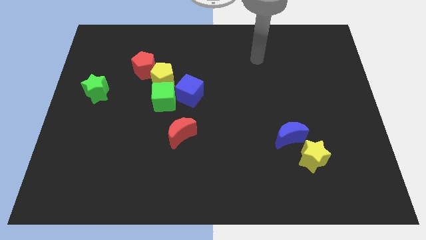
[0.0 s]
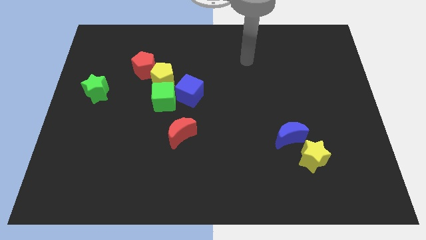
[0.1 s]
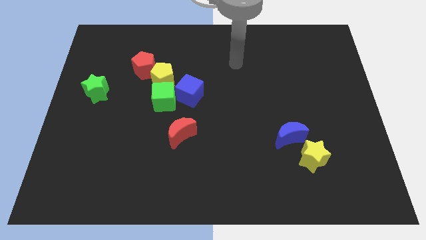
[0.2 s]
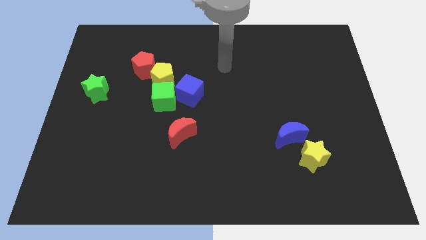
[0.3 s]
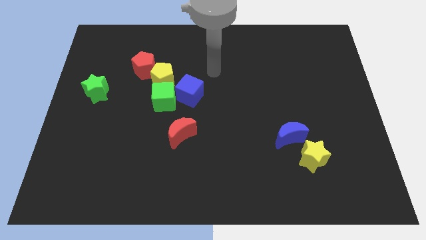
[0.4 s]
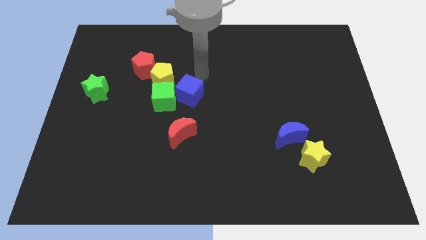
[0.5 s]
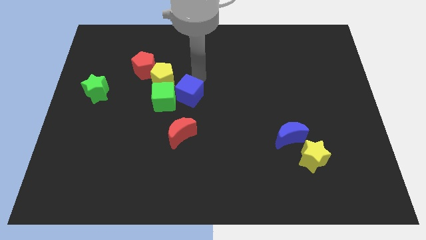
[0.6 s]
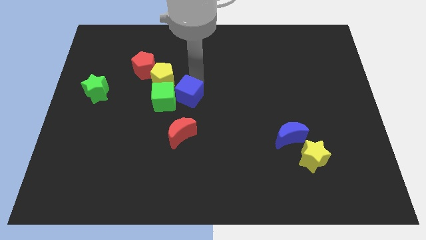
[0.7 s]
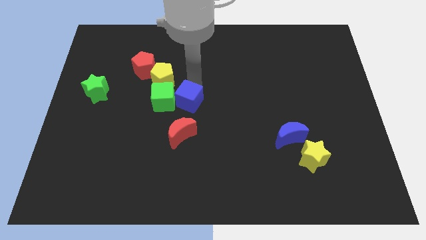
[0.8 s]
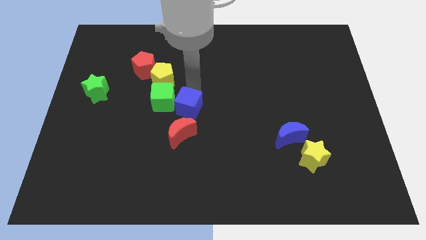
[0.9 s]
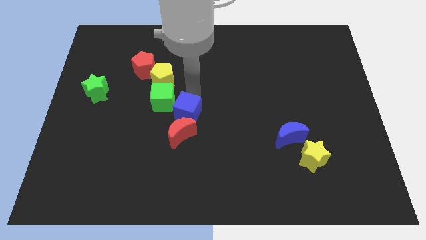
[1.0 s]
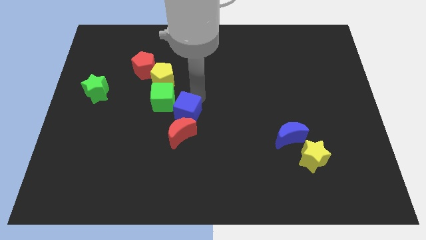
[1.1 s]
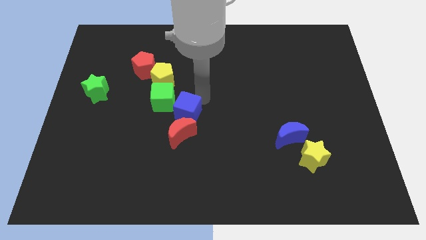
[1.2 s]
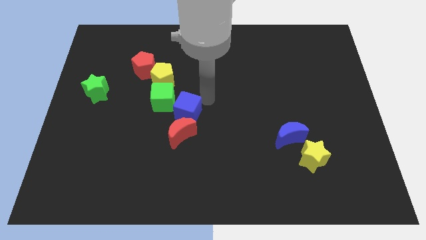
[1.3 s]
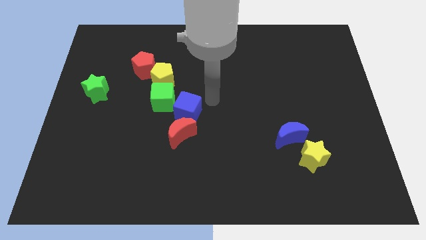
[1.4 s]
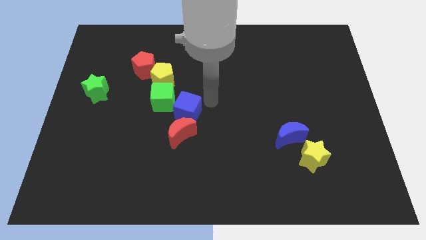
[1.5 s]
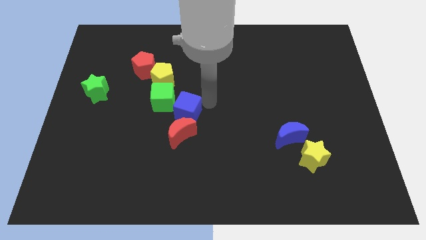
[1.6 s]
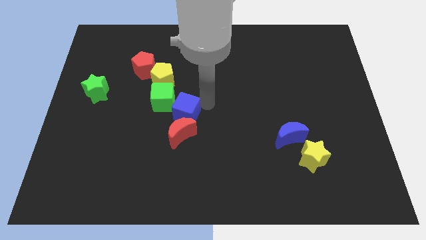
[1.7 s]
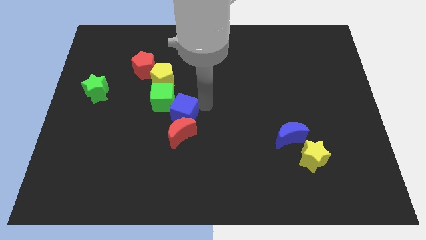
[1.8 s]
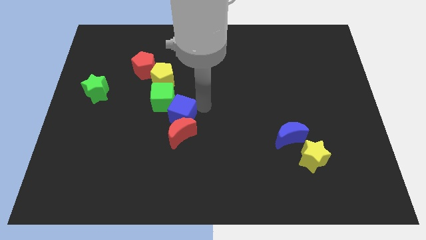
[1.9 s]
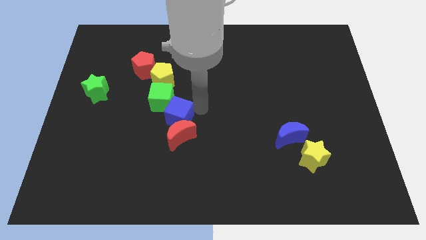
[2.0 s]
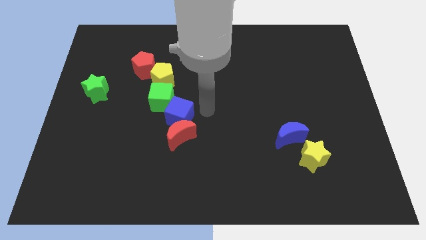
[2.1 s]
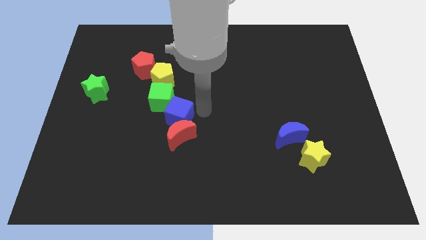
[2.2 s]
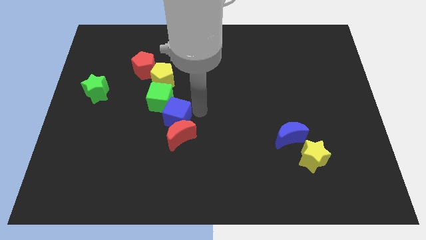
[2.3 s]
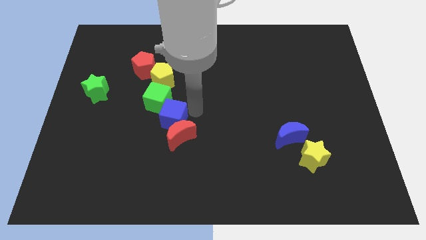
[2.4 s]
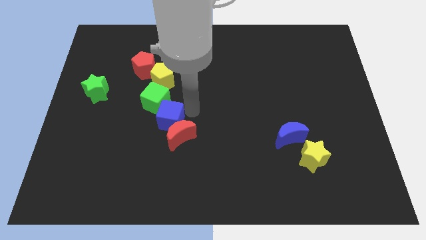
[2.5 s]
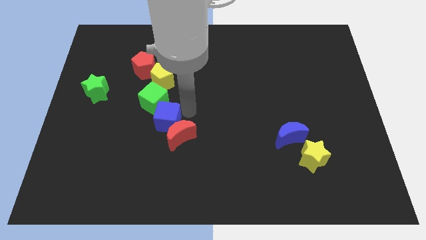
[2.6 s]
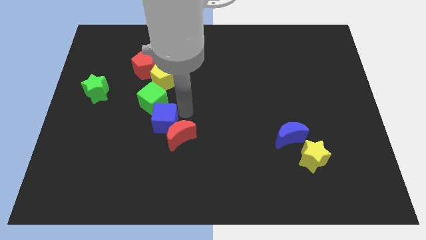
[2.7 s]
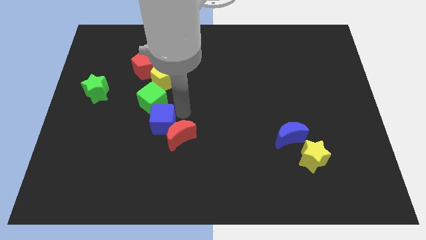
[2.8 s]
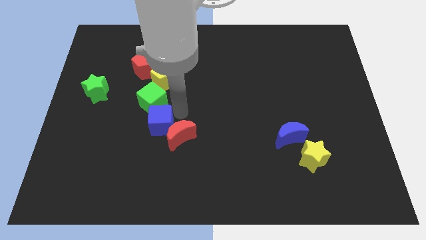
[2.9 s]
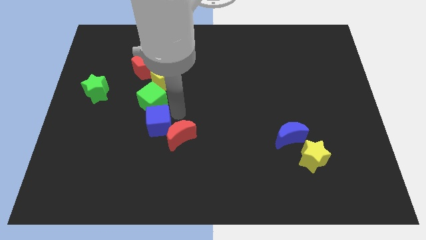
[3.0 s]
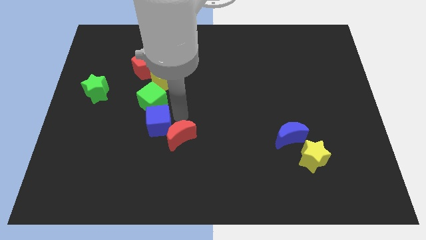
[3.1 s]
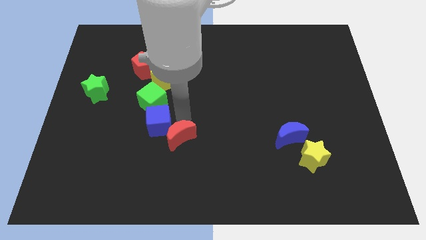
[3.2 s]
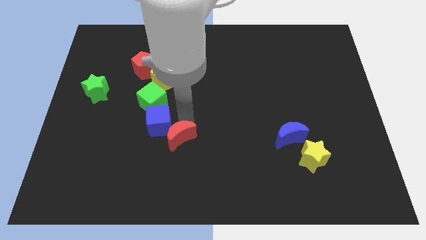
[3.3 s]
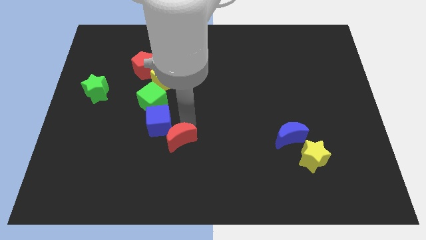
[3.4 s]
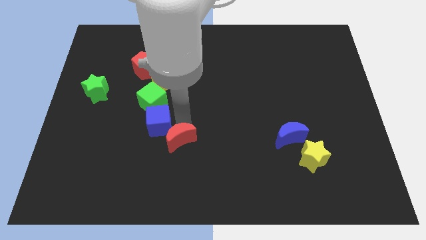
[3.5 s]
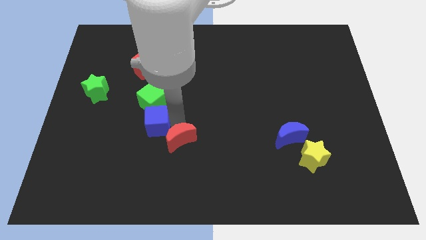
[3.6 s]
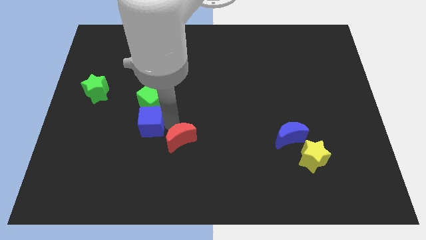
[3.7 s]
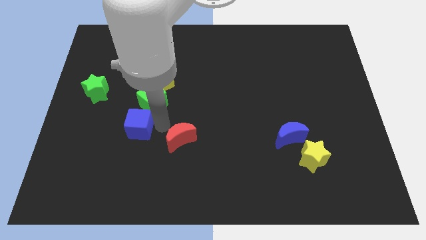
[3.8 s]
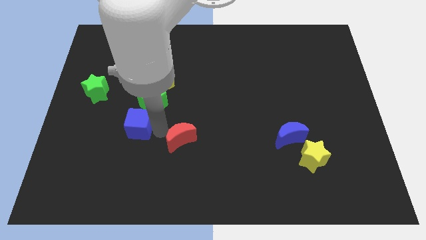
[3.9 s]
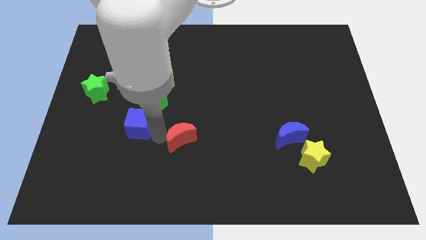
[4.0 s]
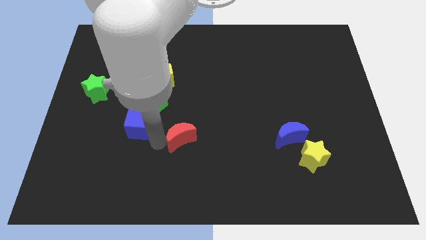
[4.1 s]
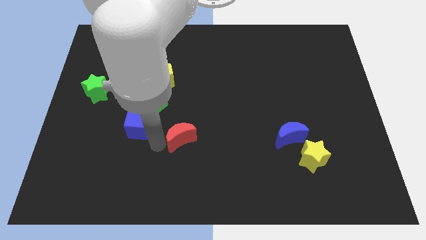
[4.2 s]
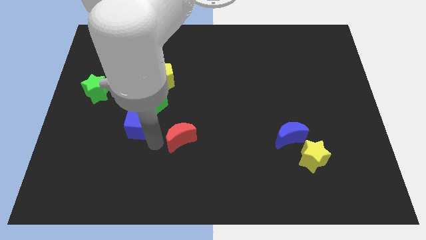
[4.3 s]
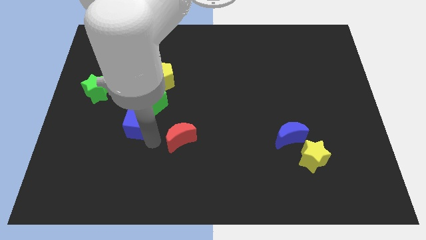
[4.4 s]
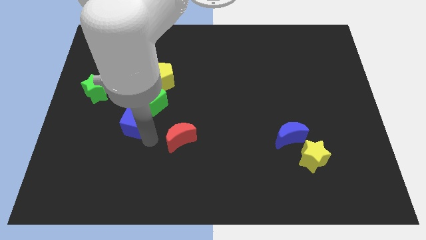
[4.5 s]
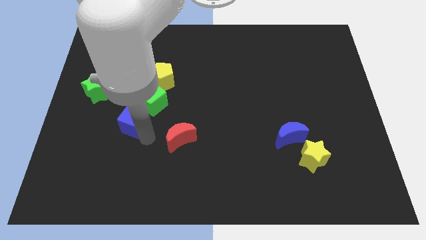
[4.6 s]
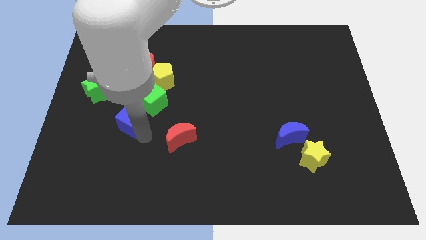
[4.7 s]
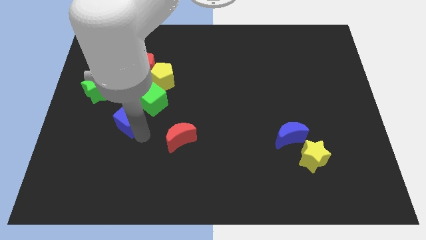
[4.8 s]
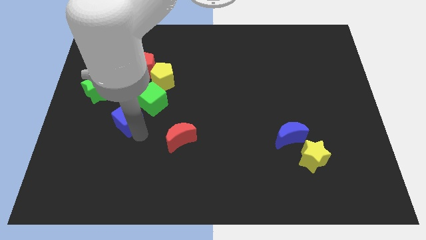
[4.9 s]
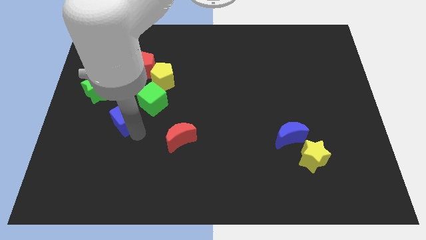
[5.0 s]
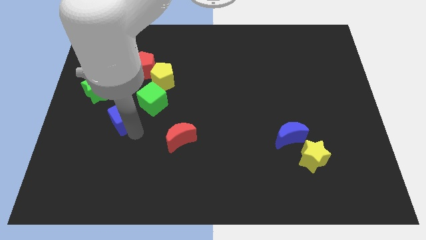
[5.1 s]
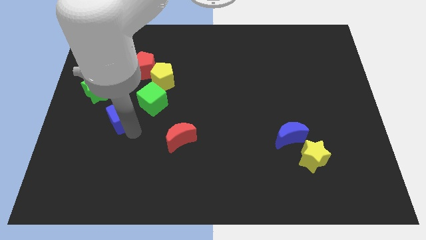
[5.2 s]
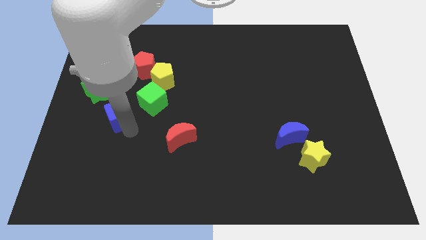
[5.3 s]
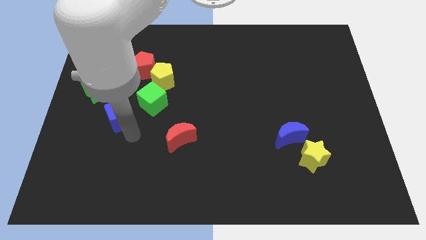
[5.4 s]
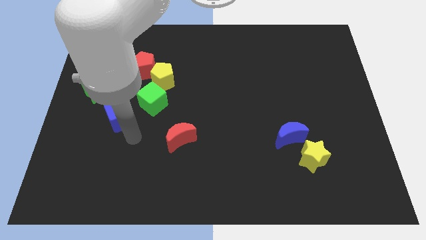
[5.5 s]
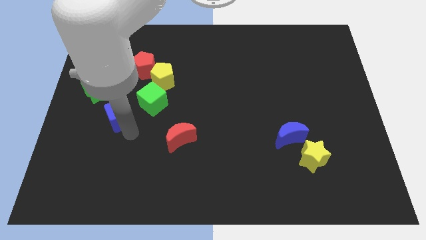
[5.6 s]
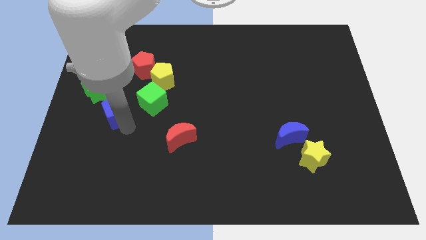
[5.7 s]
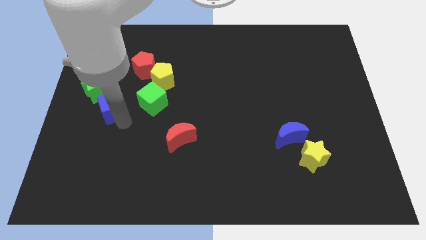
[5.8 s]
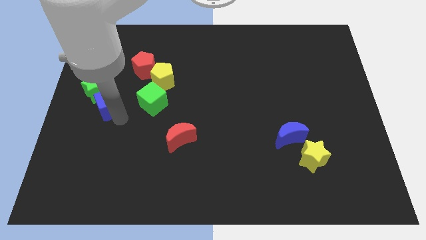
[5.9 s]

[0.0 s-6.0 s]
slide the blue cube next to the green star

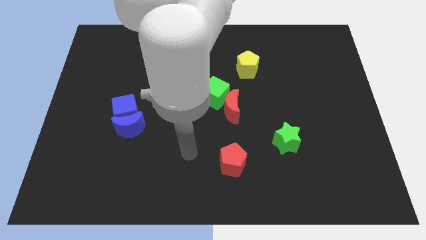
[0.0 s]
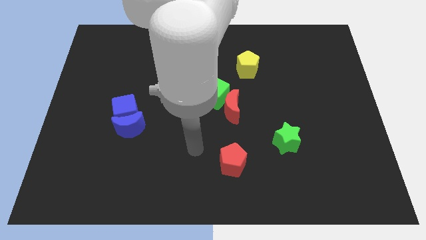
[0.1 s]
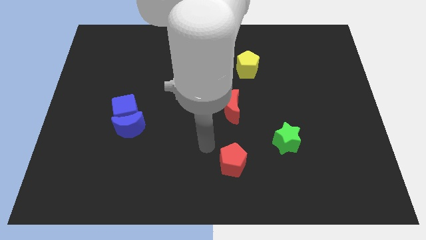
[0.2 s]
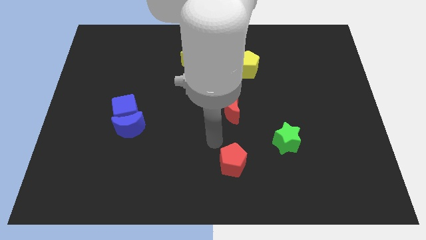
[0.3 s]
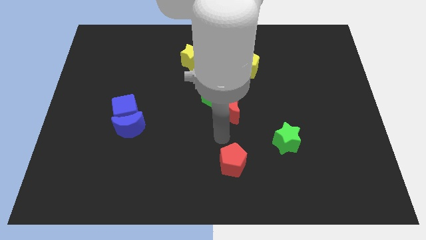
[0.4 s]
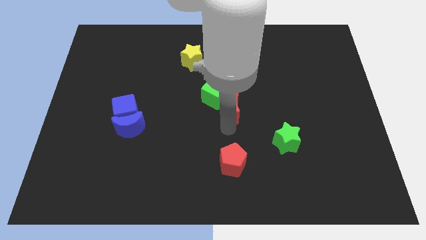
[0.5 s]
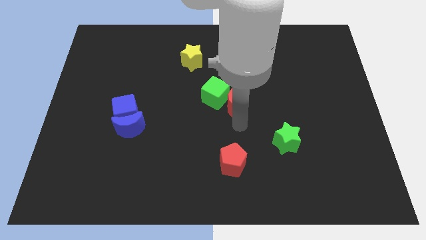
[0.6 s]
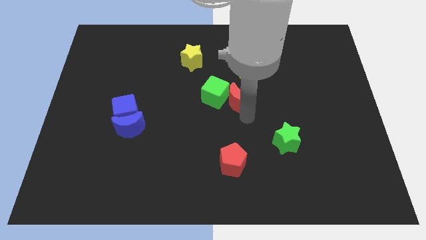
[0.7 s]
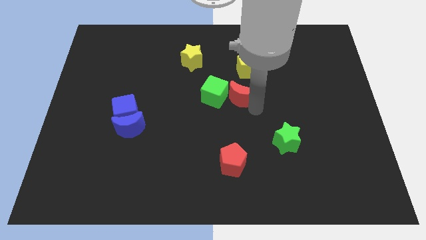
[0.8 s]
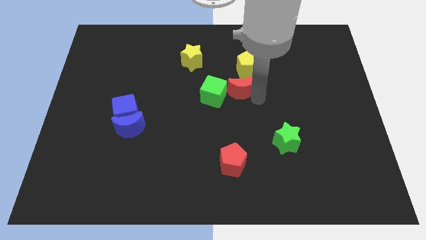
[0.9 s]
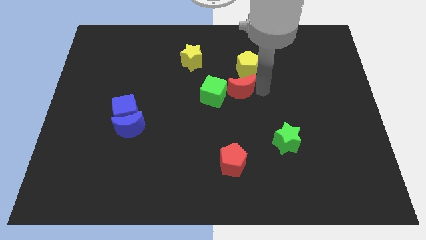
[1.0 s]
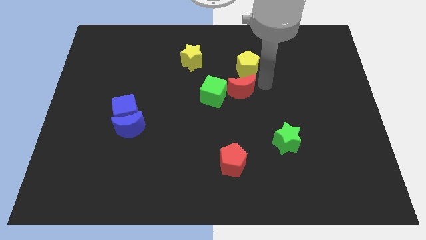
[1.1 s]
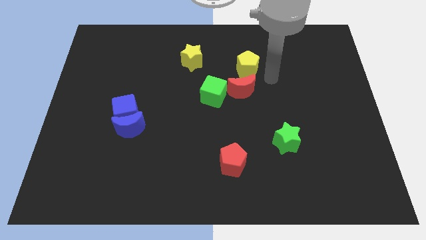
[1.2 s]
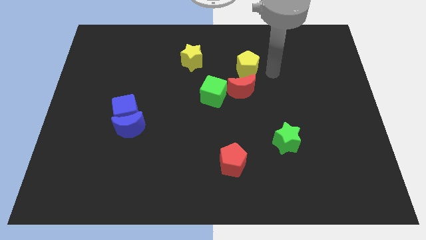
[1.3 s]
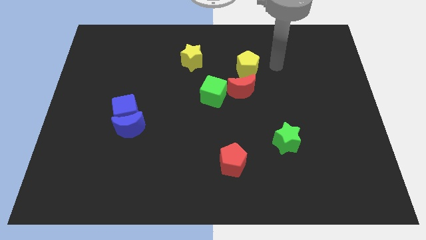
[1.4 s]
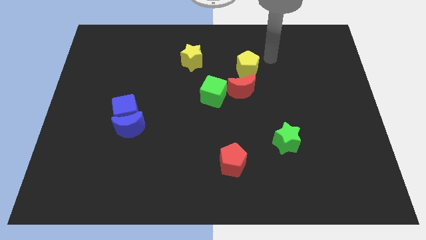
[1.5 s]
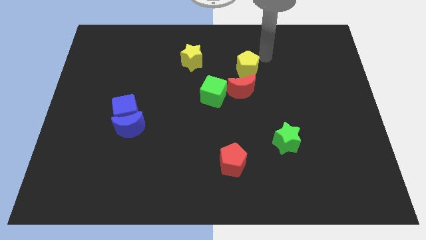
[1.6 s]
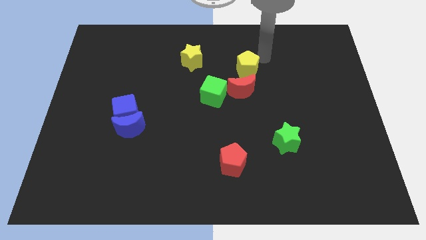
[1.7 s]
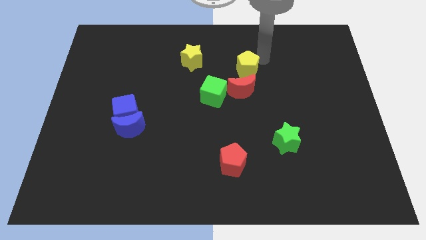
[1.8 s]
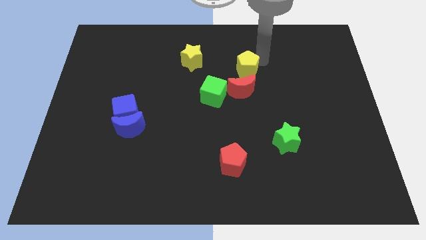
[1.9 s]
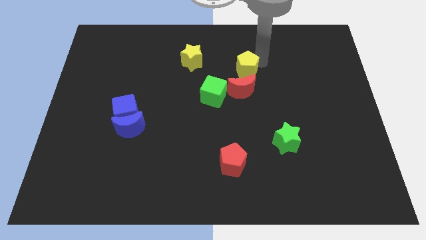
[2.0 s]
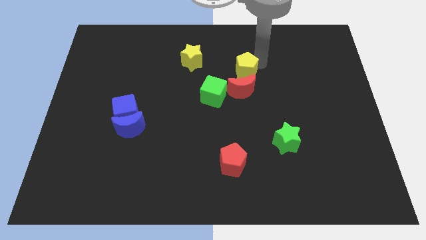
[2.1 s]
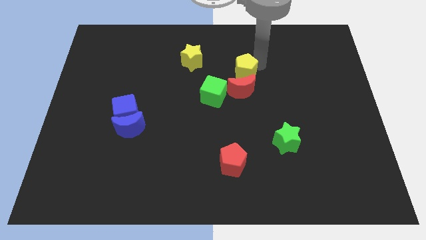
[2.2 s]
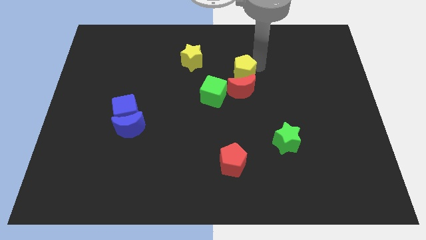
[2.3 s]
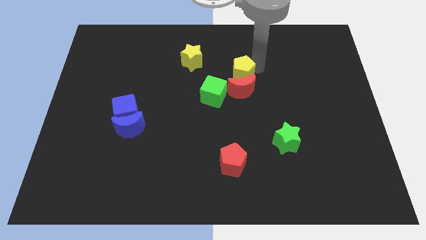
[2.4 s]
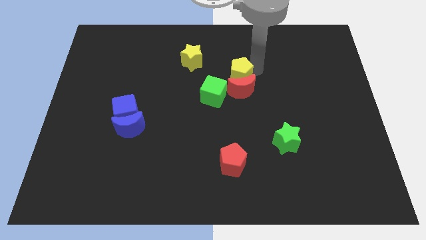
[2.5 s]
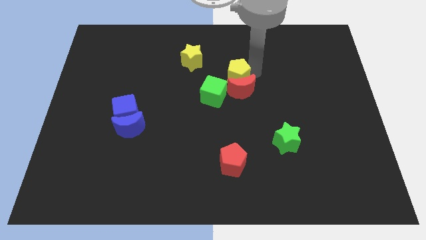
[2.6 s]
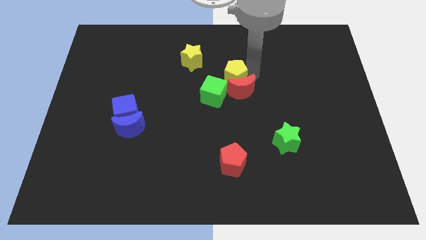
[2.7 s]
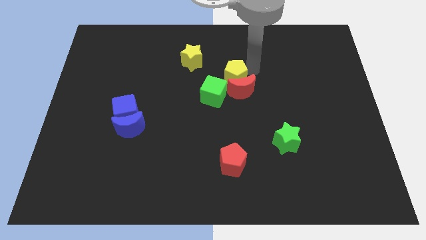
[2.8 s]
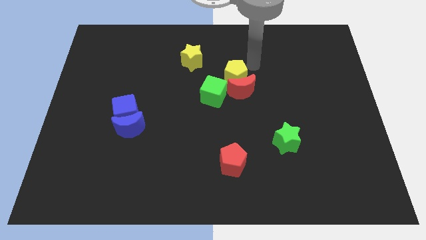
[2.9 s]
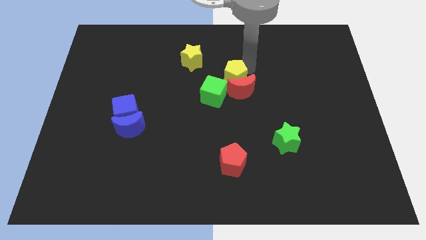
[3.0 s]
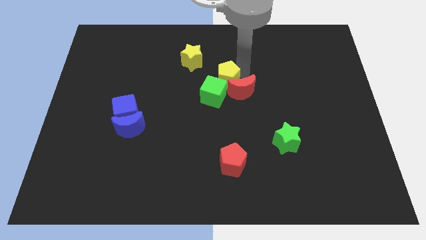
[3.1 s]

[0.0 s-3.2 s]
slide the yellow pentagon next to the green cube
